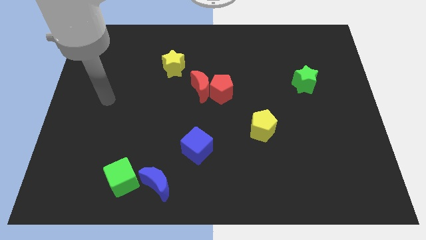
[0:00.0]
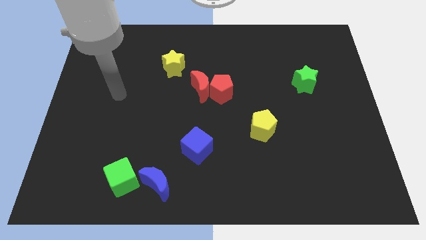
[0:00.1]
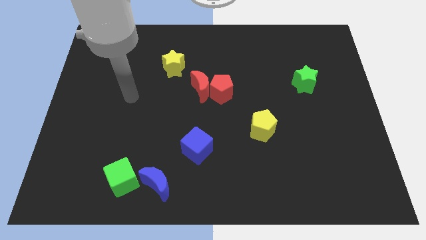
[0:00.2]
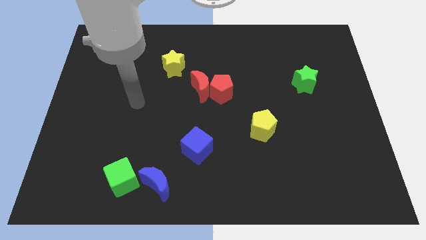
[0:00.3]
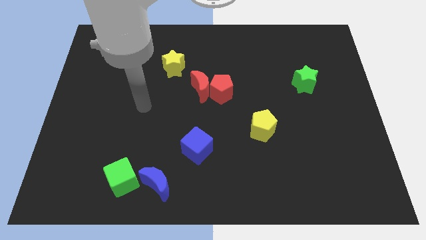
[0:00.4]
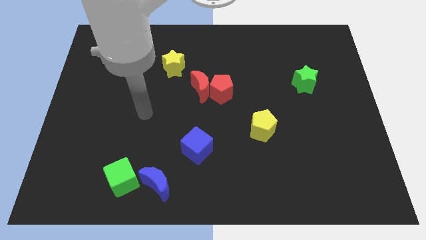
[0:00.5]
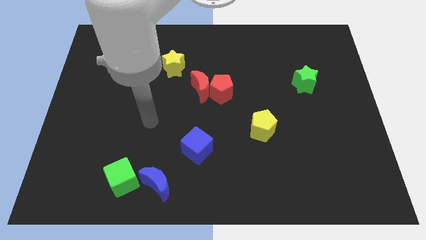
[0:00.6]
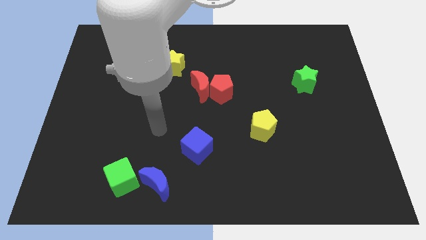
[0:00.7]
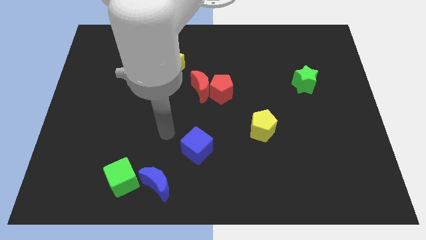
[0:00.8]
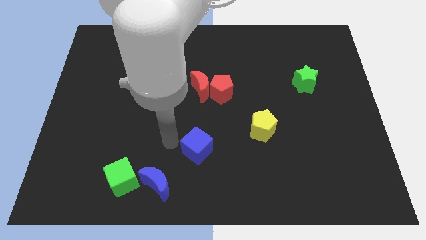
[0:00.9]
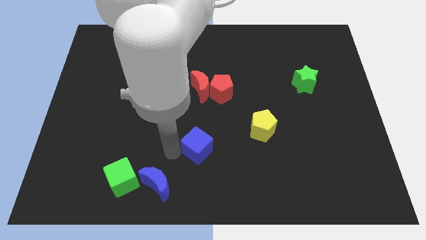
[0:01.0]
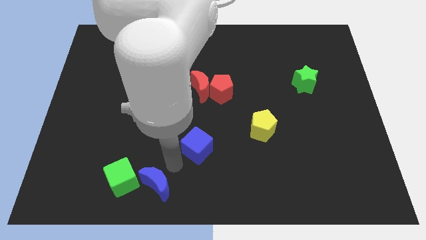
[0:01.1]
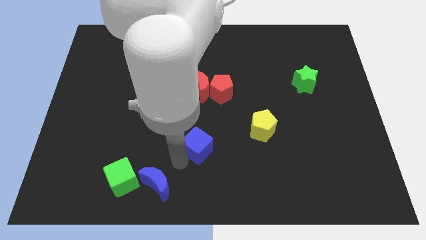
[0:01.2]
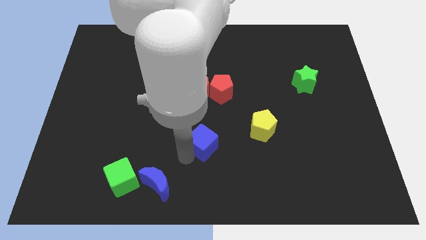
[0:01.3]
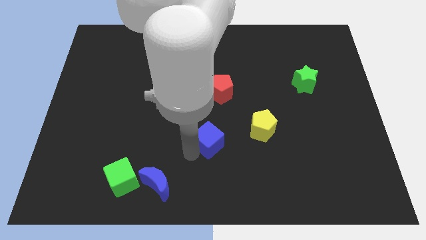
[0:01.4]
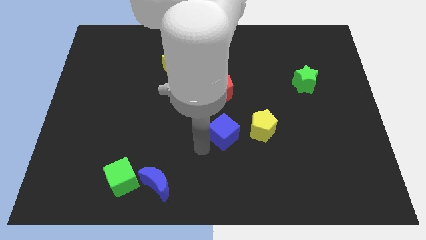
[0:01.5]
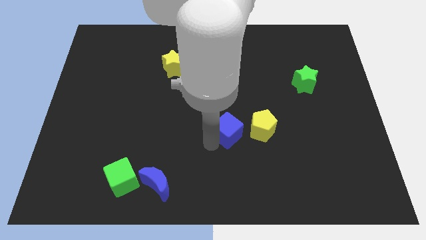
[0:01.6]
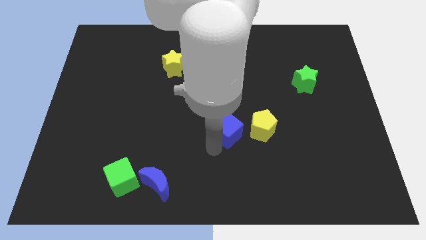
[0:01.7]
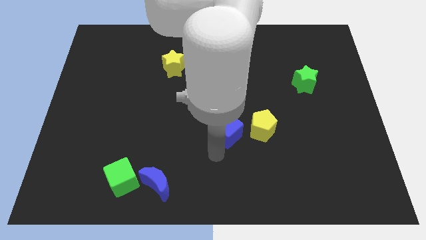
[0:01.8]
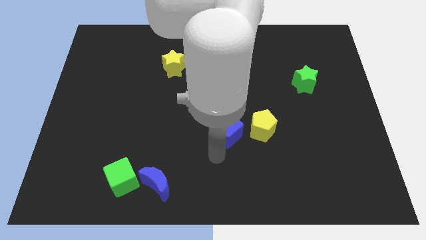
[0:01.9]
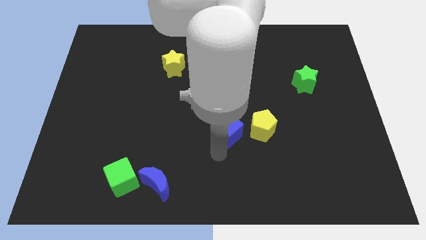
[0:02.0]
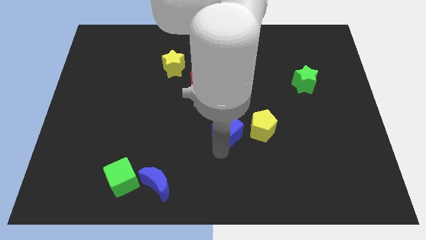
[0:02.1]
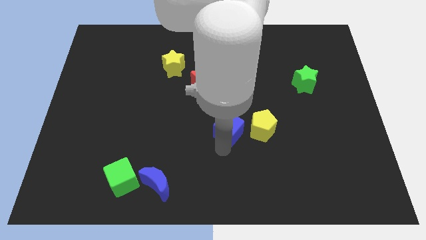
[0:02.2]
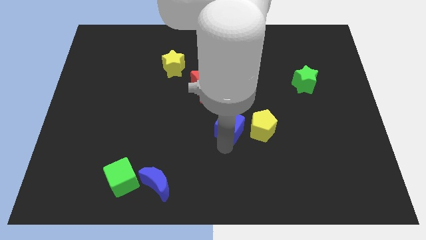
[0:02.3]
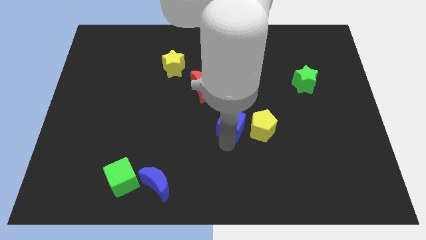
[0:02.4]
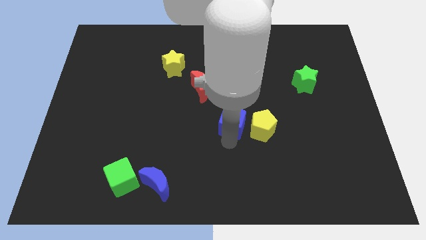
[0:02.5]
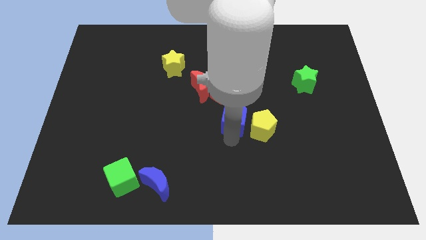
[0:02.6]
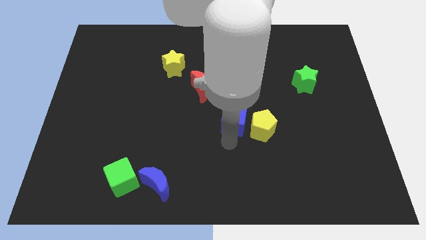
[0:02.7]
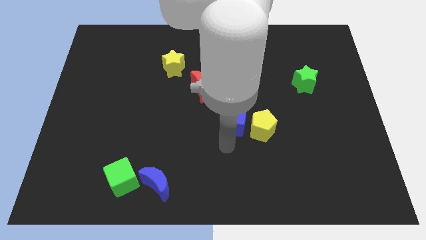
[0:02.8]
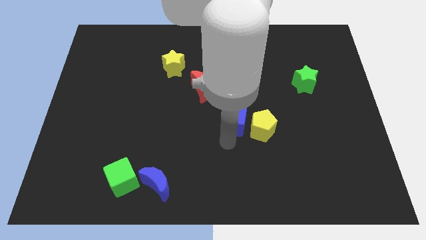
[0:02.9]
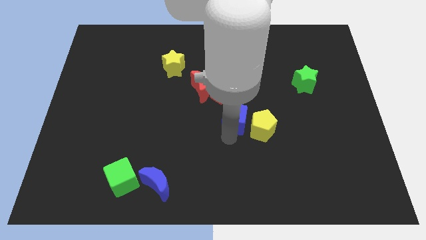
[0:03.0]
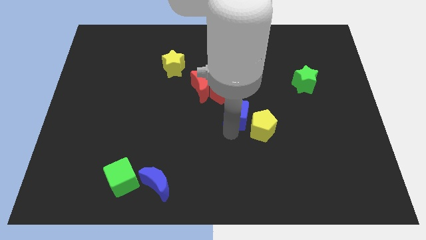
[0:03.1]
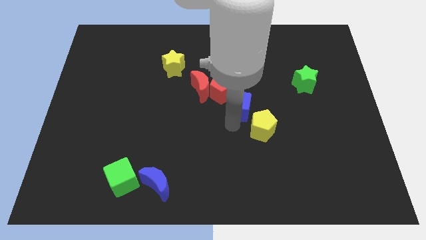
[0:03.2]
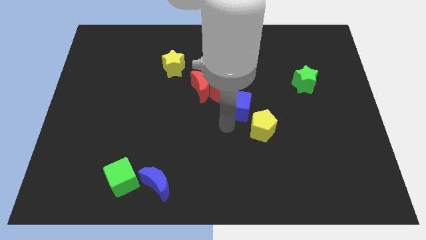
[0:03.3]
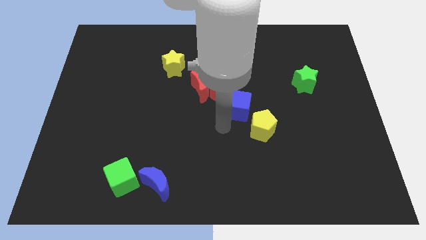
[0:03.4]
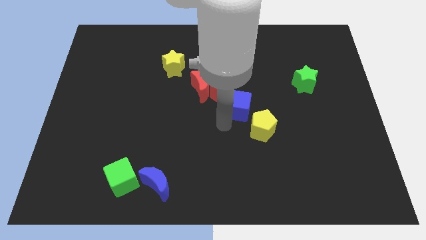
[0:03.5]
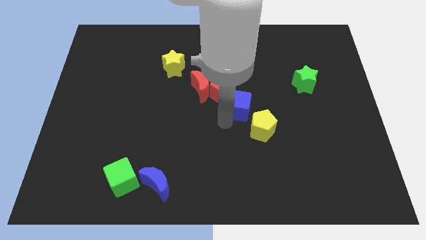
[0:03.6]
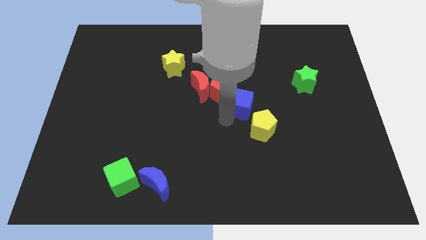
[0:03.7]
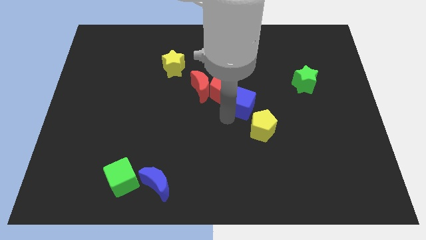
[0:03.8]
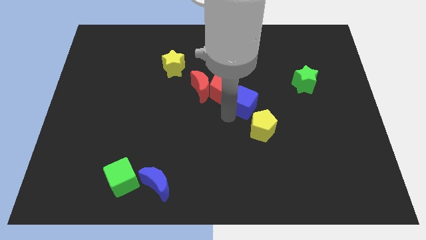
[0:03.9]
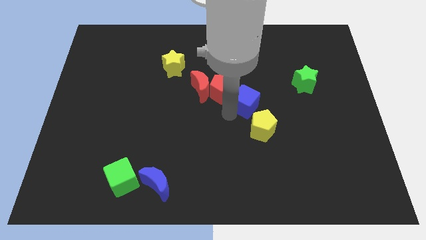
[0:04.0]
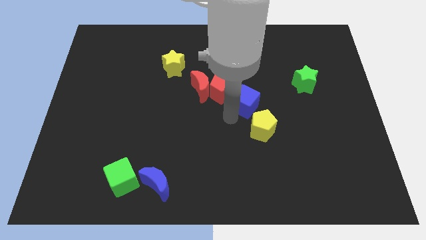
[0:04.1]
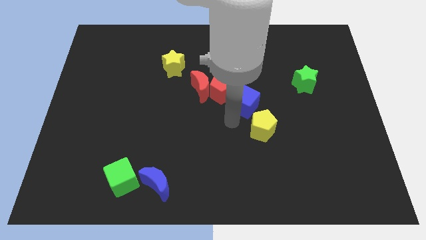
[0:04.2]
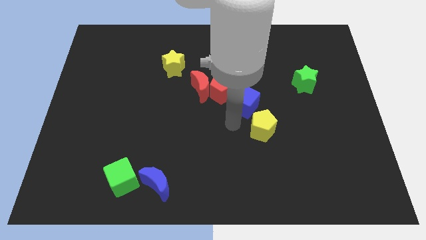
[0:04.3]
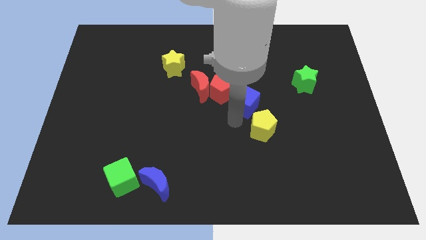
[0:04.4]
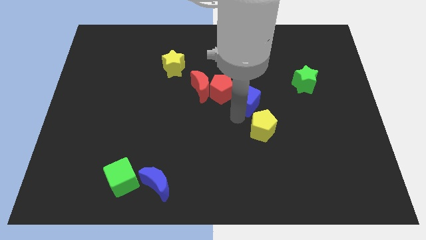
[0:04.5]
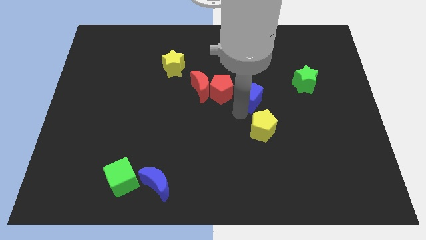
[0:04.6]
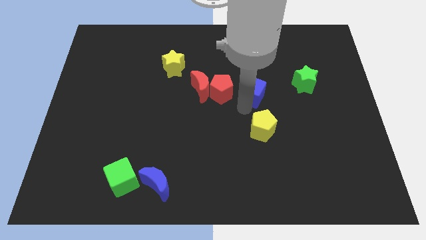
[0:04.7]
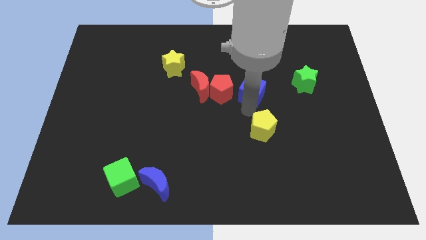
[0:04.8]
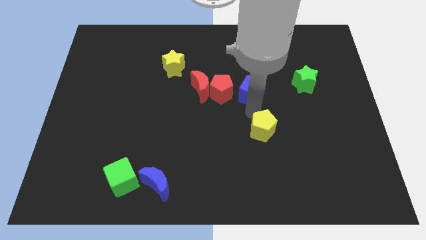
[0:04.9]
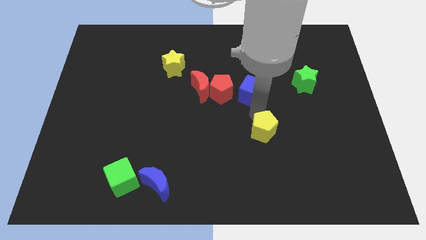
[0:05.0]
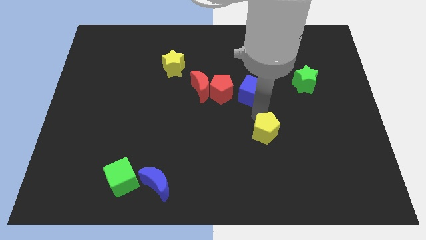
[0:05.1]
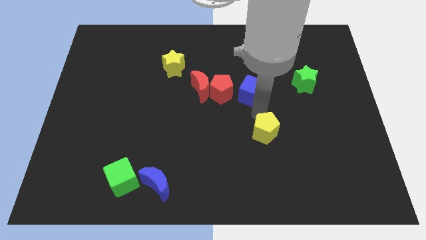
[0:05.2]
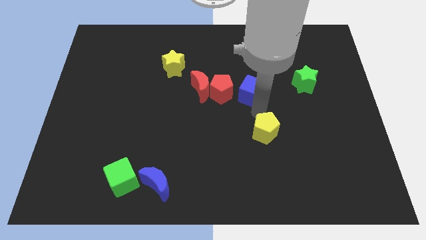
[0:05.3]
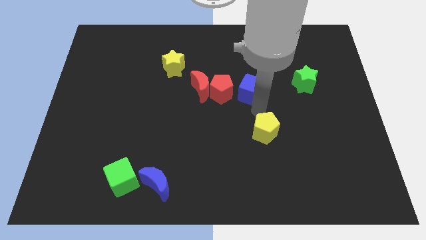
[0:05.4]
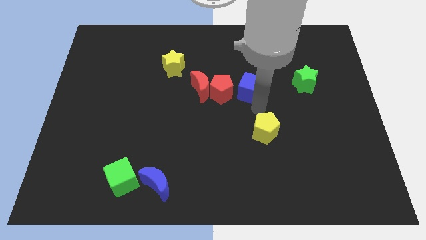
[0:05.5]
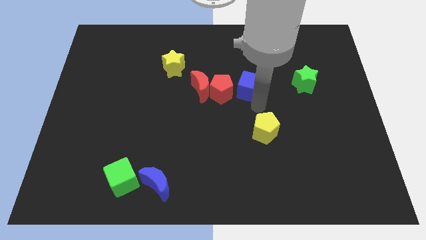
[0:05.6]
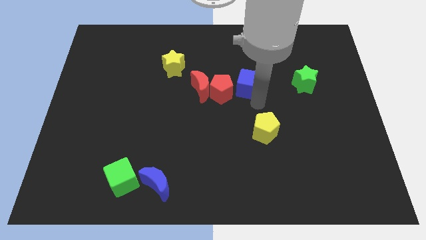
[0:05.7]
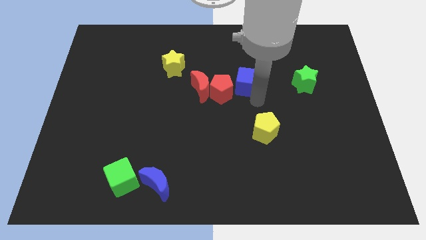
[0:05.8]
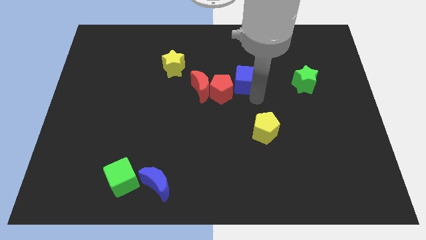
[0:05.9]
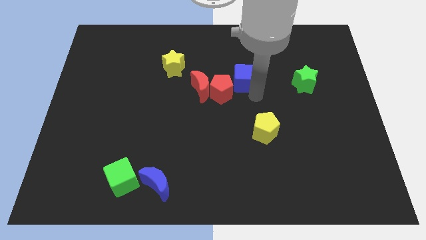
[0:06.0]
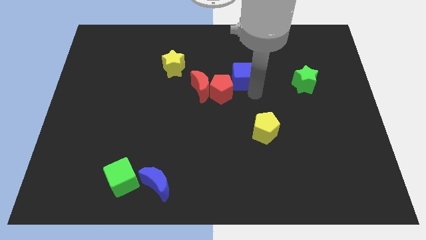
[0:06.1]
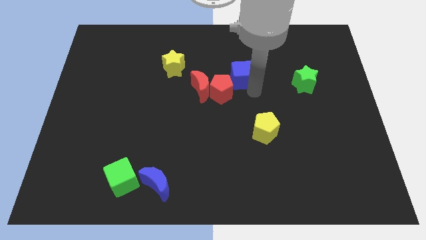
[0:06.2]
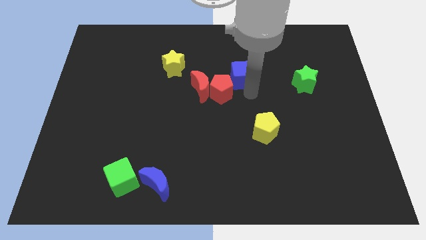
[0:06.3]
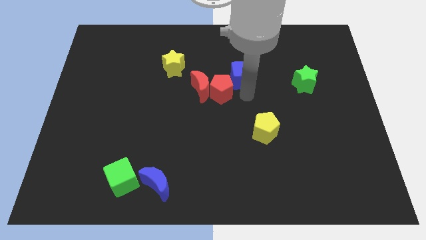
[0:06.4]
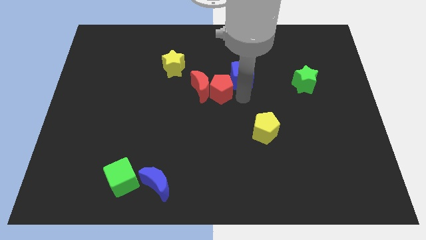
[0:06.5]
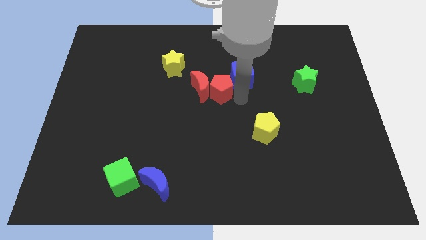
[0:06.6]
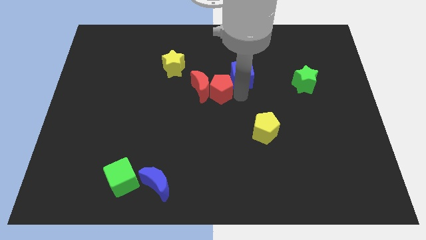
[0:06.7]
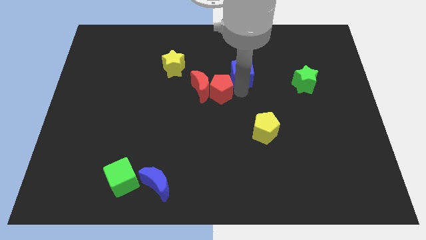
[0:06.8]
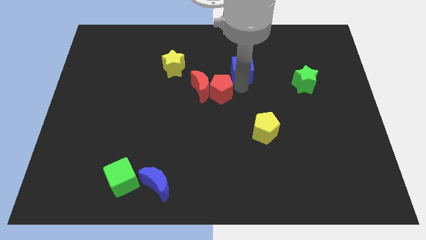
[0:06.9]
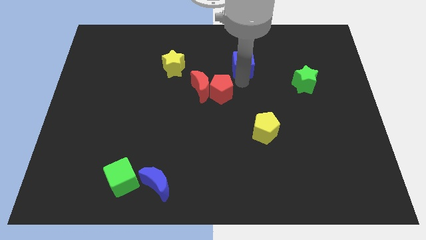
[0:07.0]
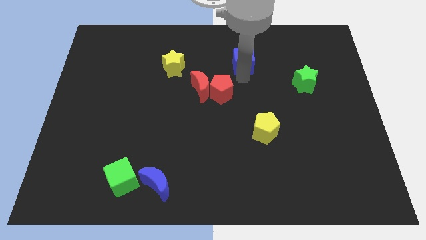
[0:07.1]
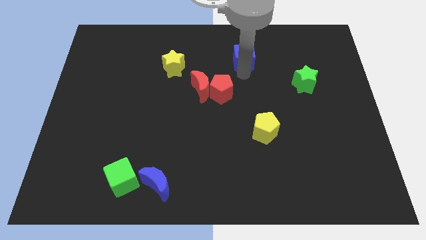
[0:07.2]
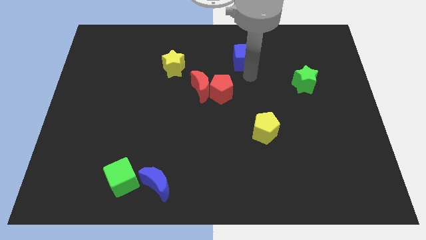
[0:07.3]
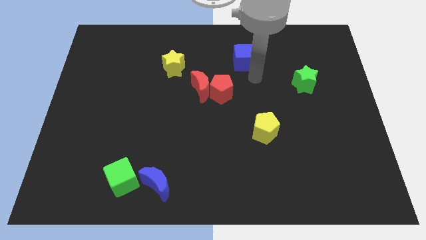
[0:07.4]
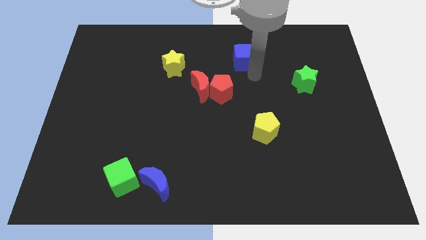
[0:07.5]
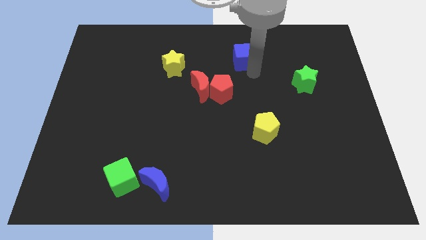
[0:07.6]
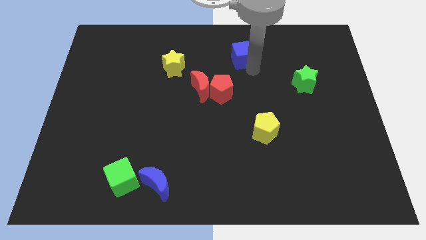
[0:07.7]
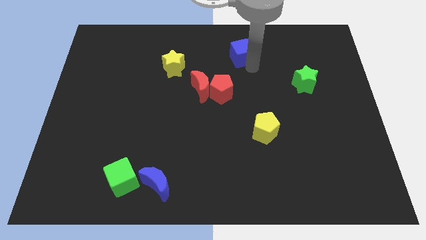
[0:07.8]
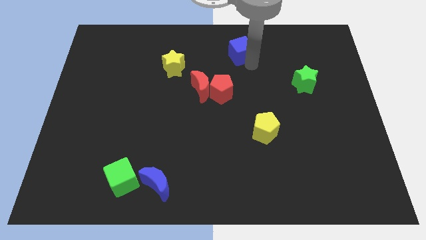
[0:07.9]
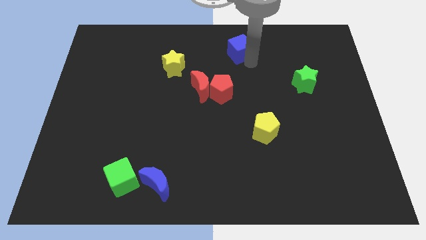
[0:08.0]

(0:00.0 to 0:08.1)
move the blue cube to the top
